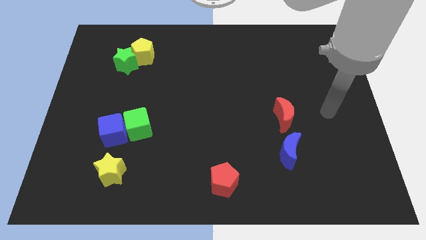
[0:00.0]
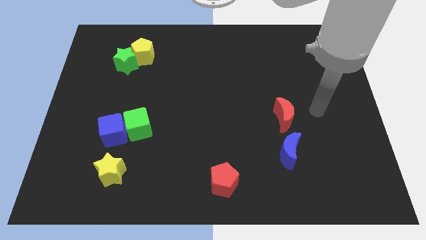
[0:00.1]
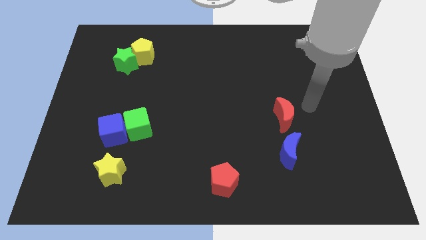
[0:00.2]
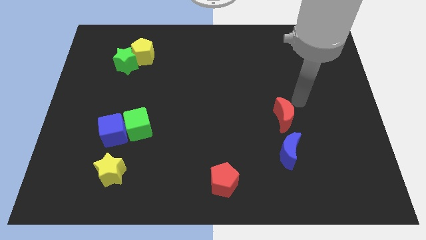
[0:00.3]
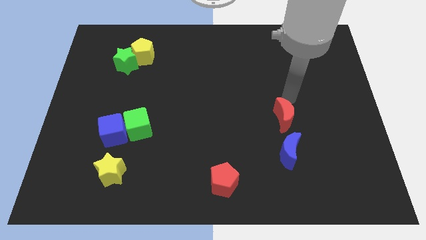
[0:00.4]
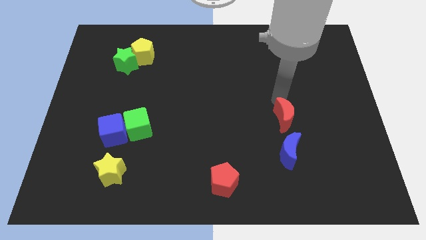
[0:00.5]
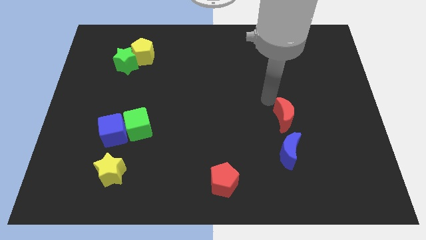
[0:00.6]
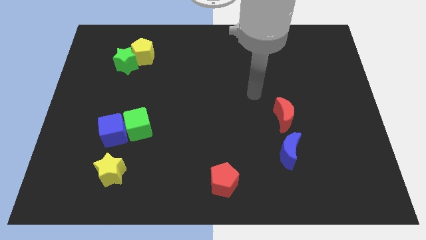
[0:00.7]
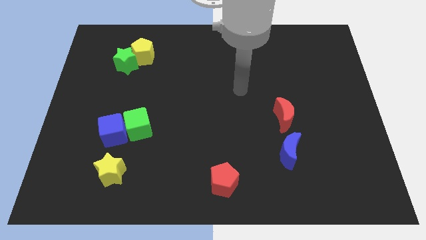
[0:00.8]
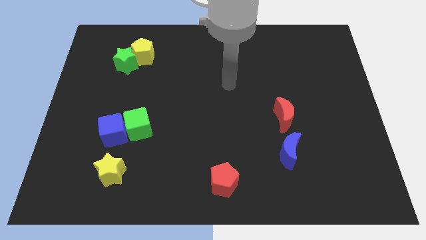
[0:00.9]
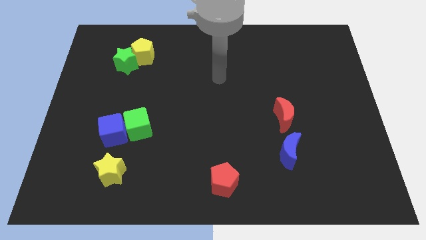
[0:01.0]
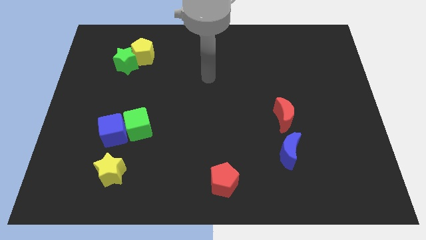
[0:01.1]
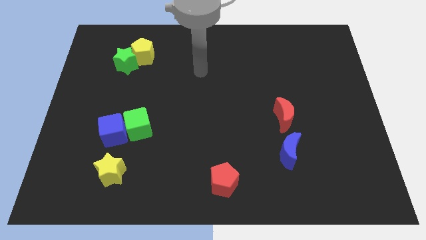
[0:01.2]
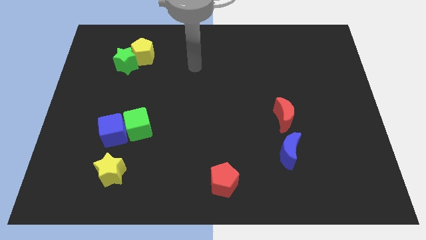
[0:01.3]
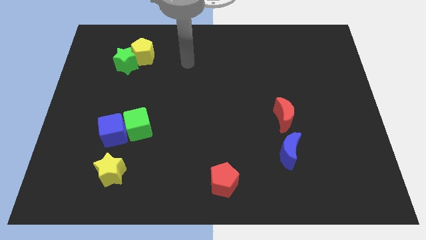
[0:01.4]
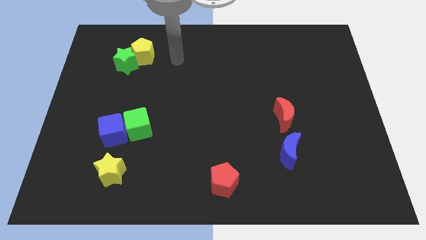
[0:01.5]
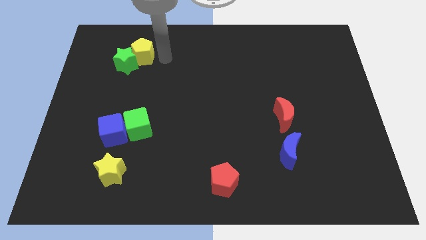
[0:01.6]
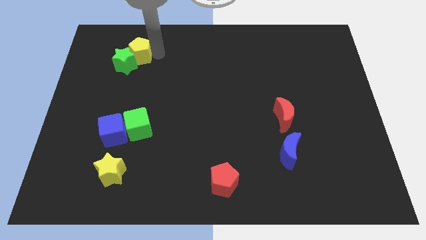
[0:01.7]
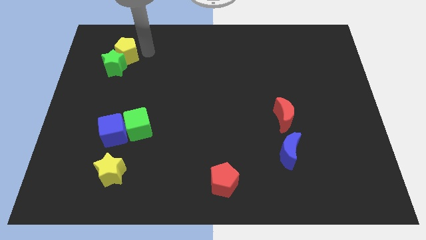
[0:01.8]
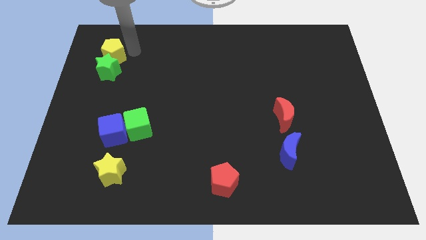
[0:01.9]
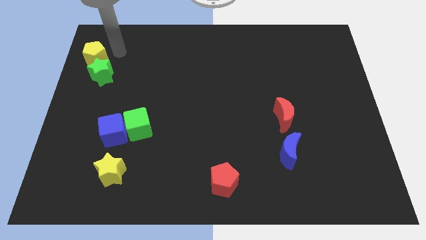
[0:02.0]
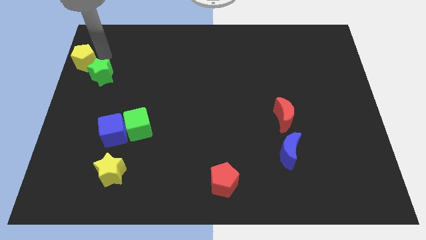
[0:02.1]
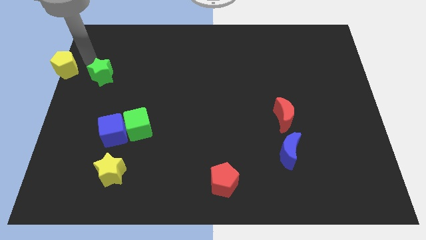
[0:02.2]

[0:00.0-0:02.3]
move the green star away from the yellow pentagon

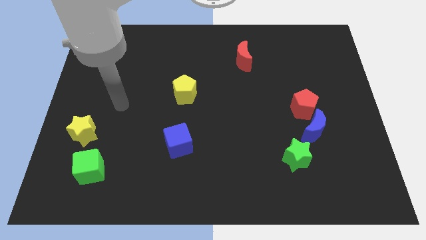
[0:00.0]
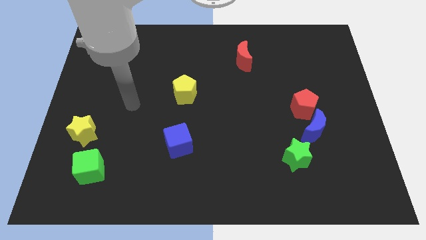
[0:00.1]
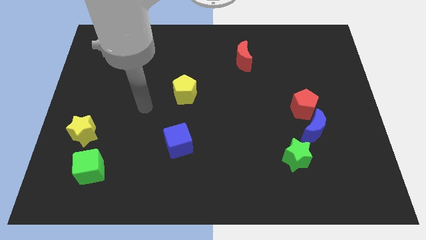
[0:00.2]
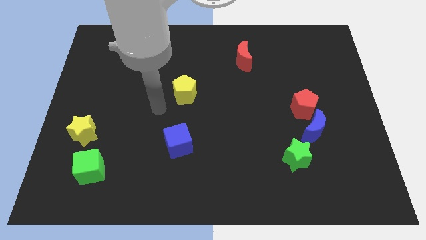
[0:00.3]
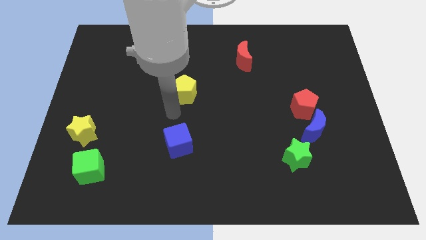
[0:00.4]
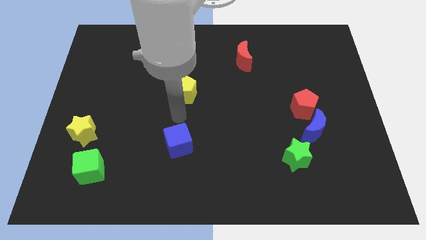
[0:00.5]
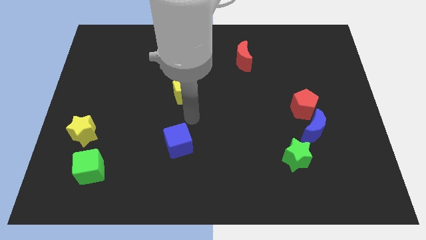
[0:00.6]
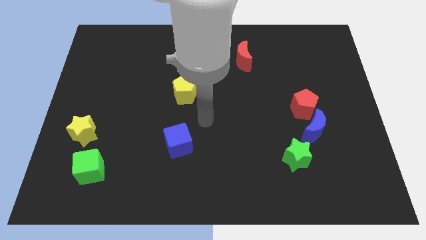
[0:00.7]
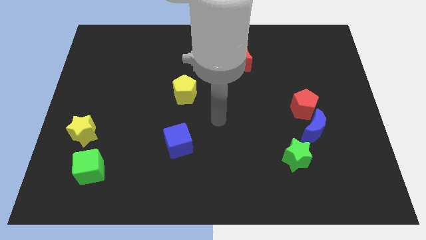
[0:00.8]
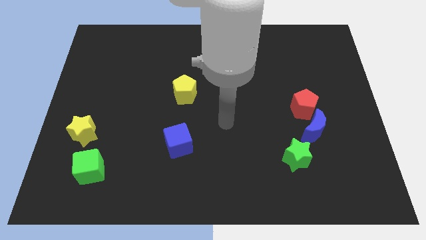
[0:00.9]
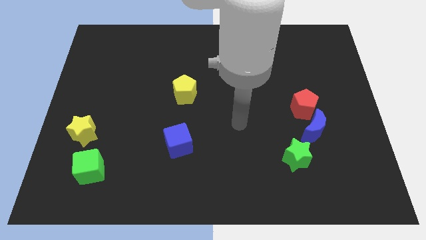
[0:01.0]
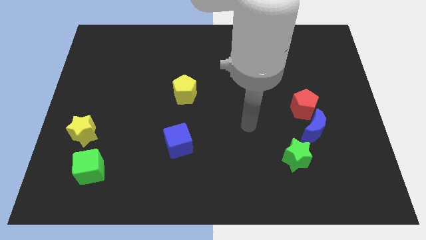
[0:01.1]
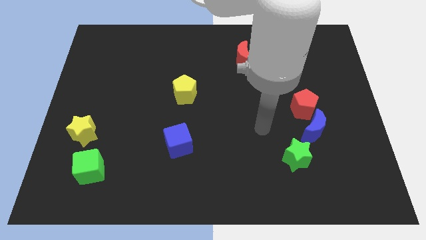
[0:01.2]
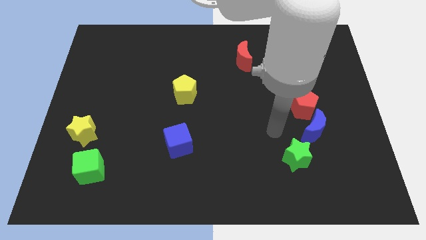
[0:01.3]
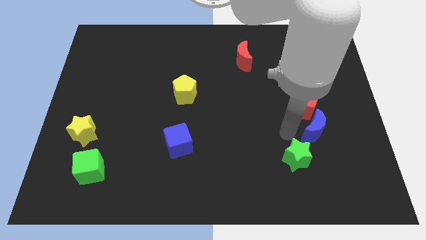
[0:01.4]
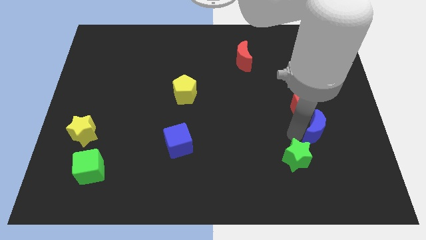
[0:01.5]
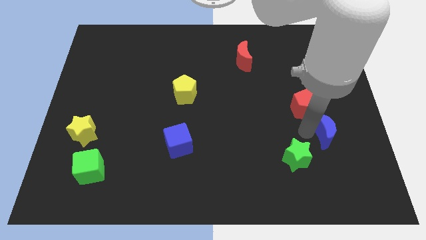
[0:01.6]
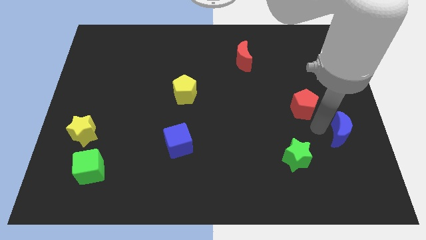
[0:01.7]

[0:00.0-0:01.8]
move the red pentagon away from the blue moon

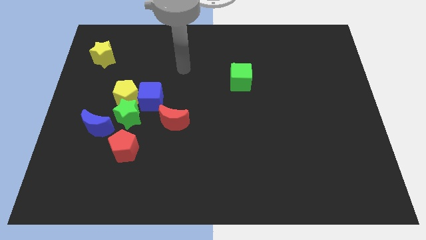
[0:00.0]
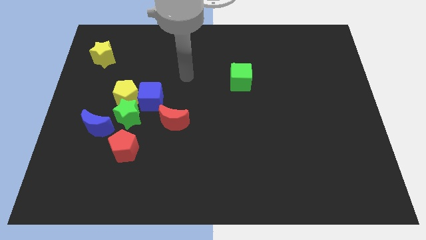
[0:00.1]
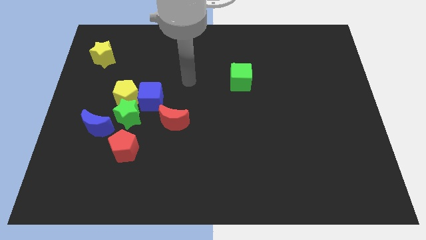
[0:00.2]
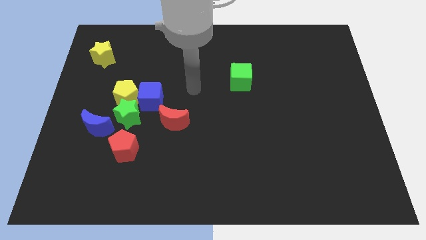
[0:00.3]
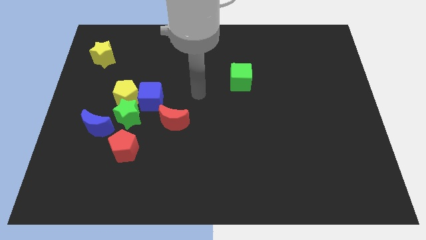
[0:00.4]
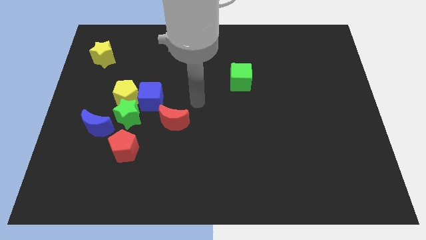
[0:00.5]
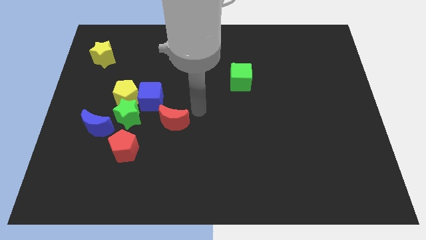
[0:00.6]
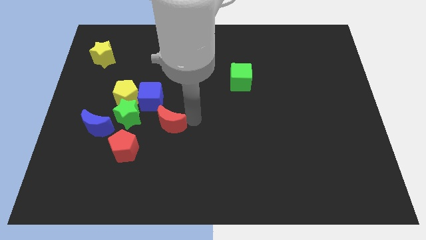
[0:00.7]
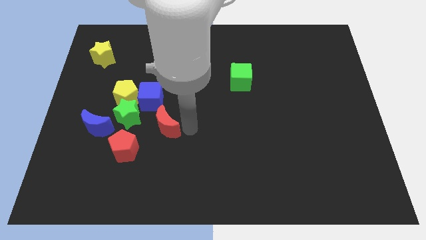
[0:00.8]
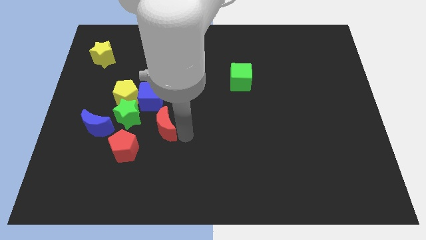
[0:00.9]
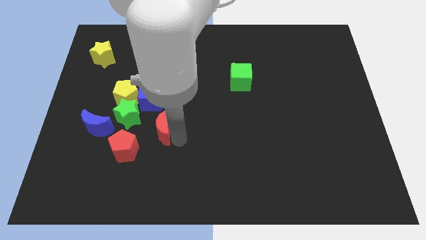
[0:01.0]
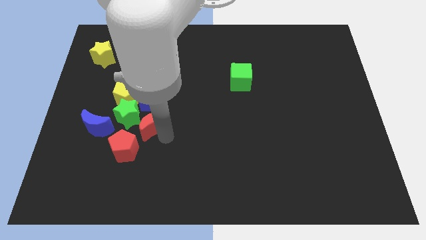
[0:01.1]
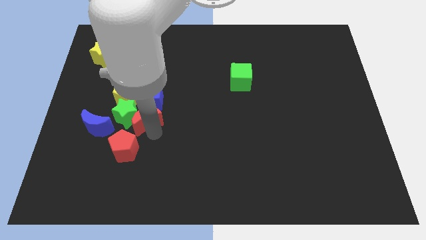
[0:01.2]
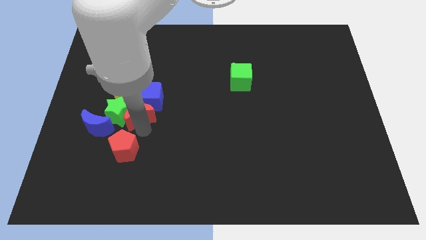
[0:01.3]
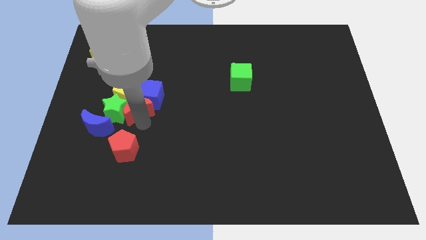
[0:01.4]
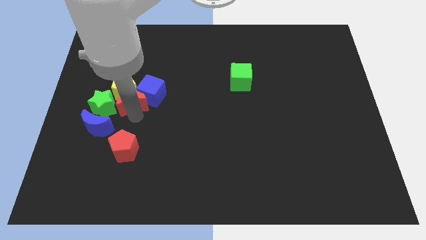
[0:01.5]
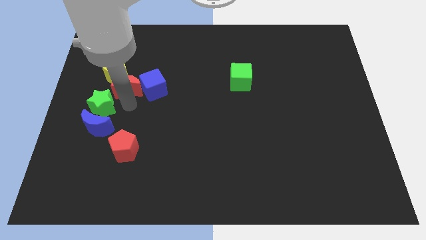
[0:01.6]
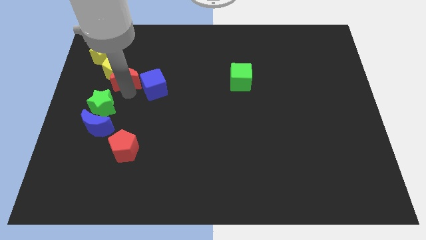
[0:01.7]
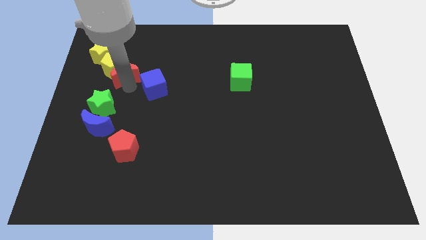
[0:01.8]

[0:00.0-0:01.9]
move the blue cube away from the yellow pentagon, green star, and red moon

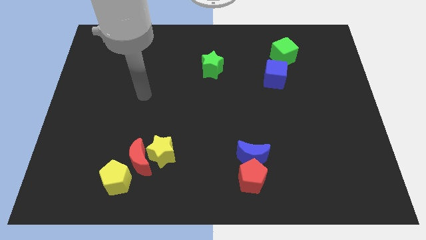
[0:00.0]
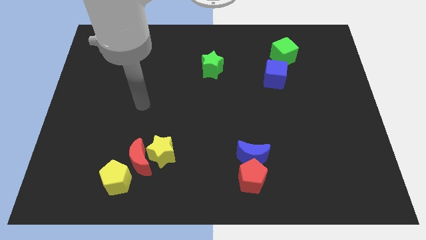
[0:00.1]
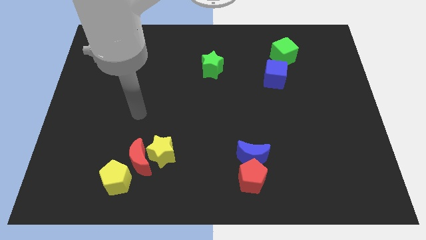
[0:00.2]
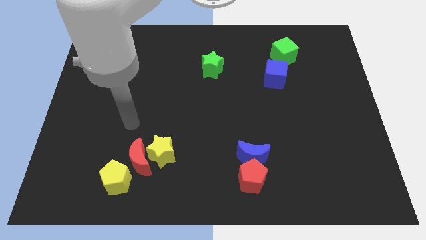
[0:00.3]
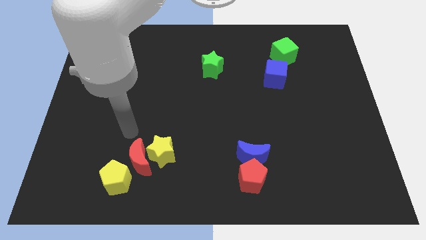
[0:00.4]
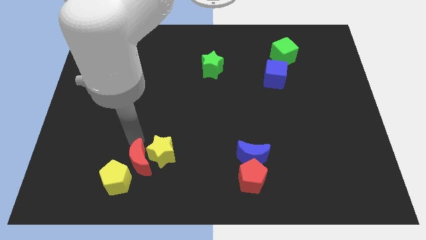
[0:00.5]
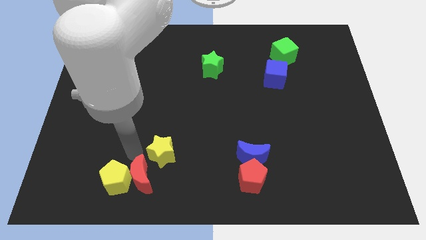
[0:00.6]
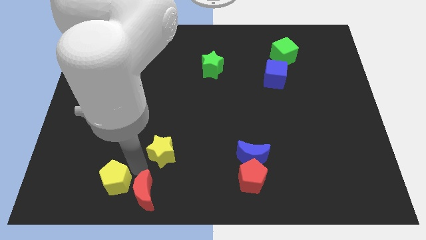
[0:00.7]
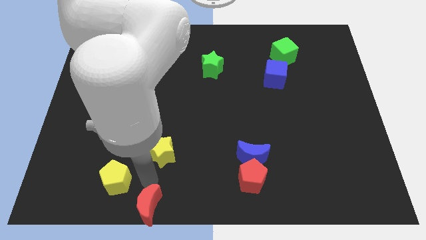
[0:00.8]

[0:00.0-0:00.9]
move the yellow star away from the red moon

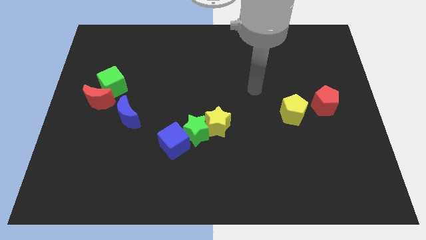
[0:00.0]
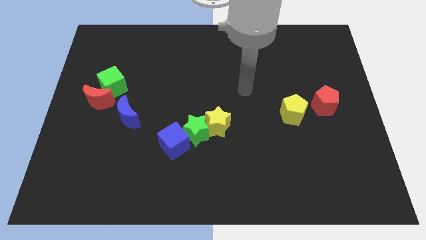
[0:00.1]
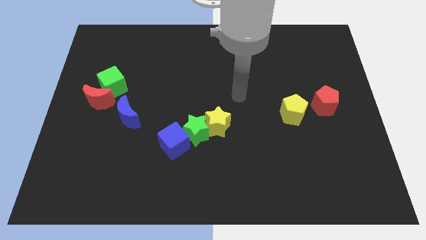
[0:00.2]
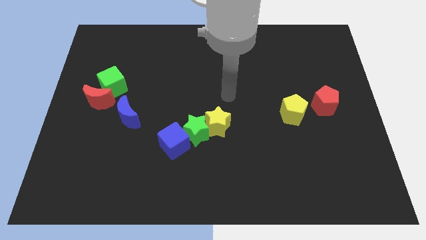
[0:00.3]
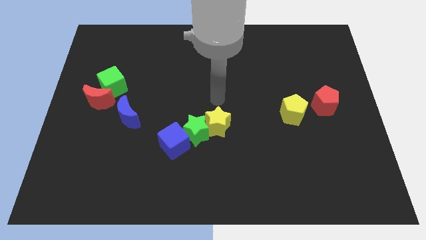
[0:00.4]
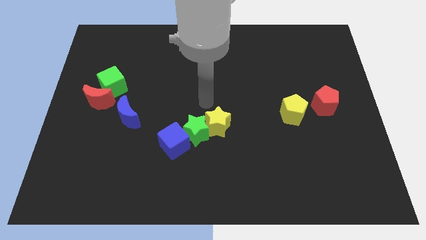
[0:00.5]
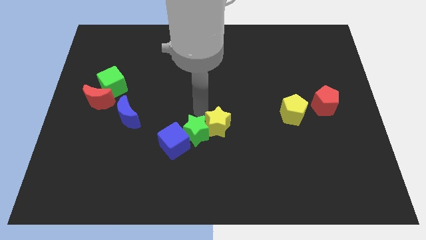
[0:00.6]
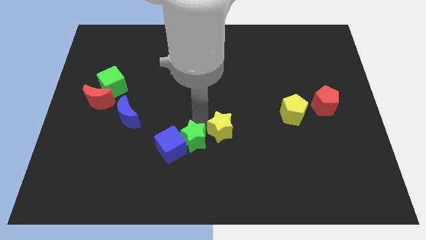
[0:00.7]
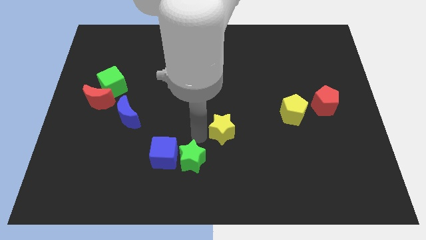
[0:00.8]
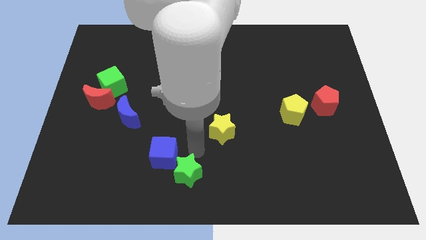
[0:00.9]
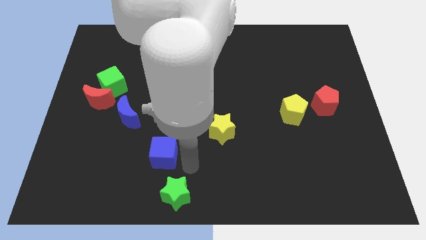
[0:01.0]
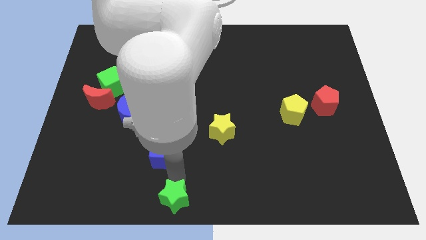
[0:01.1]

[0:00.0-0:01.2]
separate the blue cube from the green star

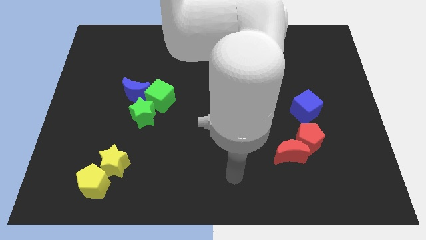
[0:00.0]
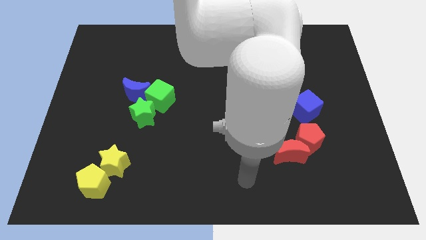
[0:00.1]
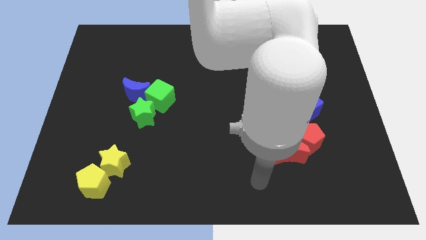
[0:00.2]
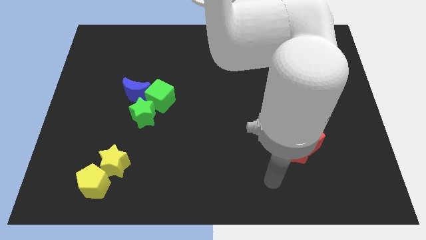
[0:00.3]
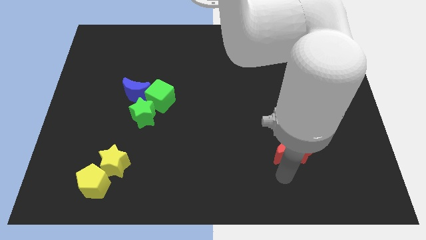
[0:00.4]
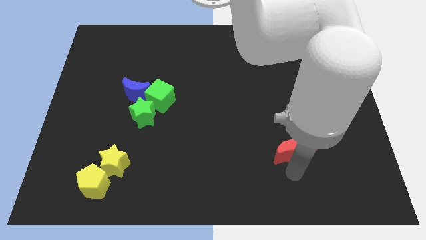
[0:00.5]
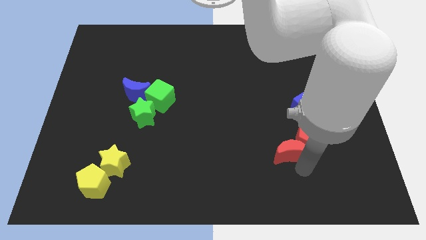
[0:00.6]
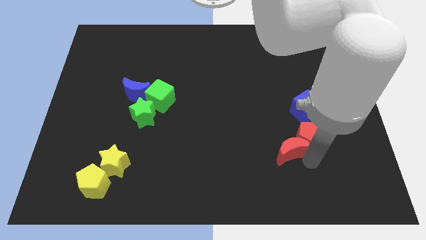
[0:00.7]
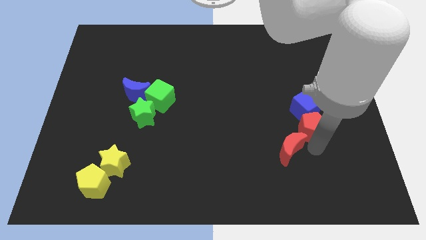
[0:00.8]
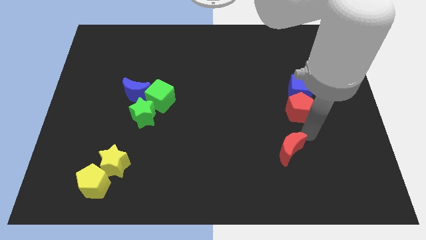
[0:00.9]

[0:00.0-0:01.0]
pull the red moon apart from the red pentagon

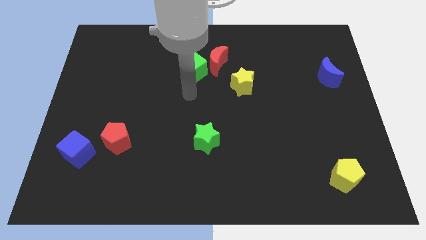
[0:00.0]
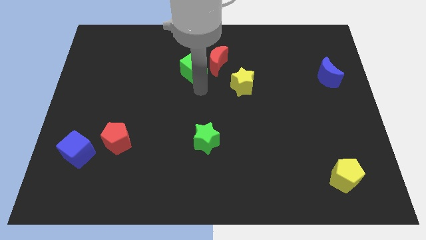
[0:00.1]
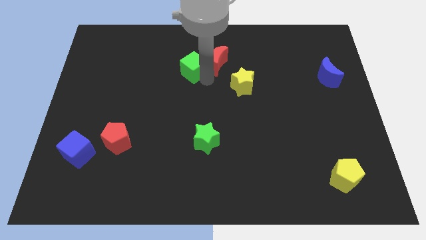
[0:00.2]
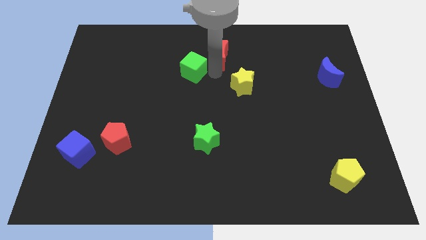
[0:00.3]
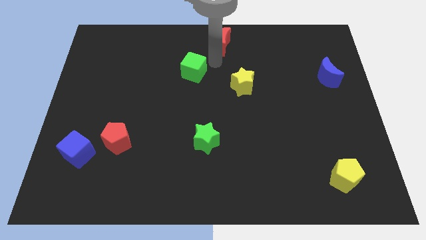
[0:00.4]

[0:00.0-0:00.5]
separate the green cube from the red moon
